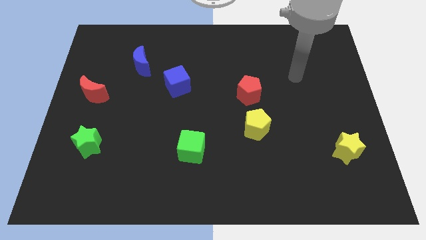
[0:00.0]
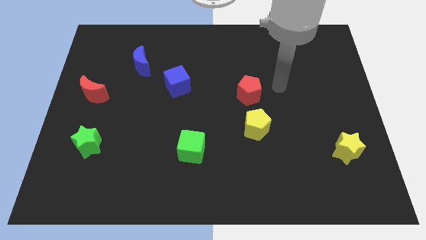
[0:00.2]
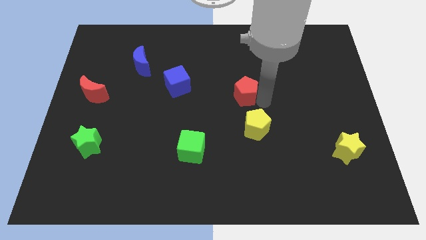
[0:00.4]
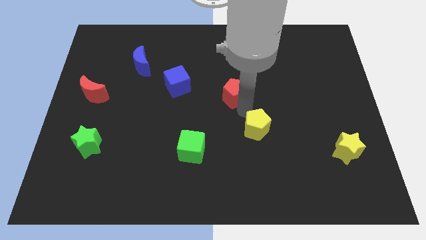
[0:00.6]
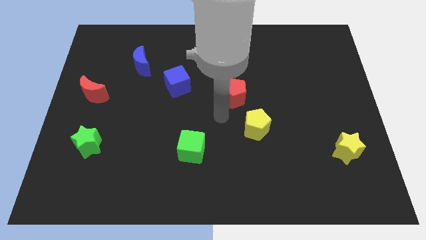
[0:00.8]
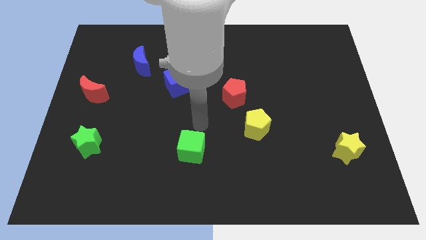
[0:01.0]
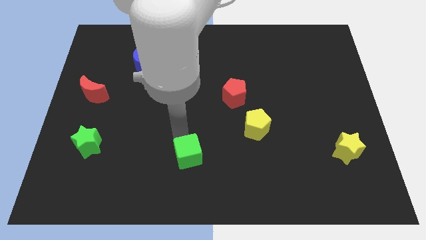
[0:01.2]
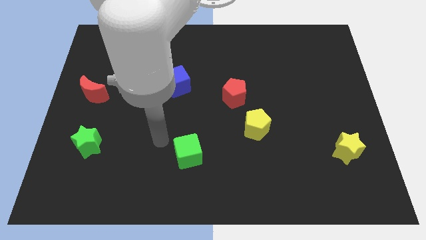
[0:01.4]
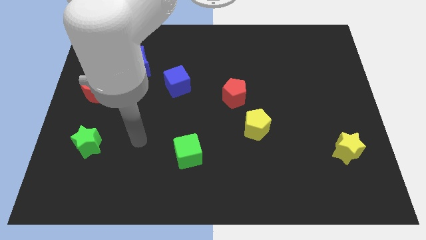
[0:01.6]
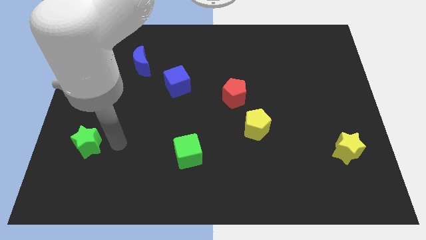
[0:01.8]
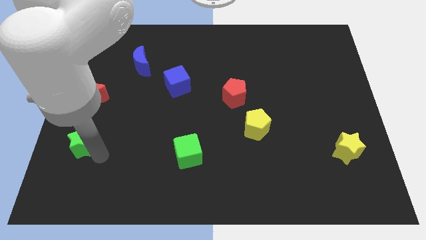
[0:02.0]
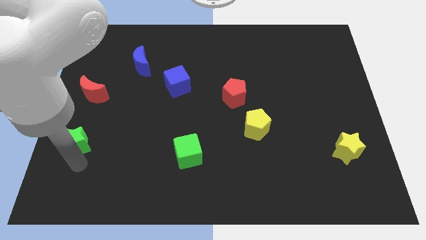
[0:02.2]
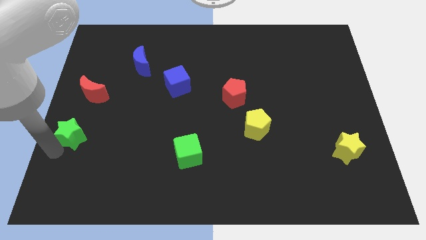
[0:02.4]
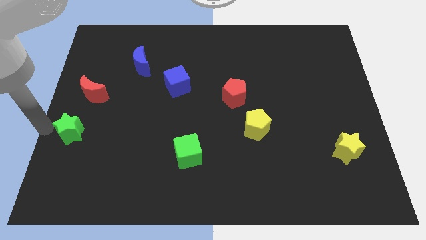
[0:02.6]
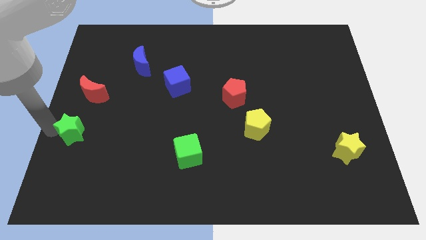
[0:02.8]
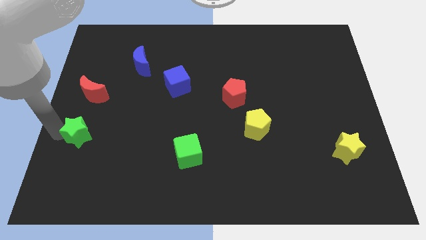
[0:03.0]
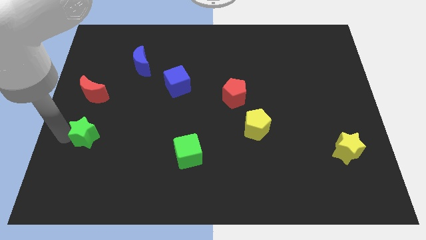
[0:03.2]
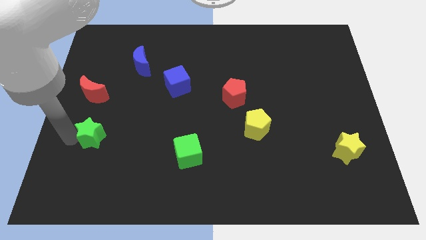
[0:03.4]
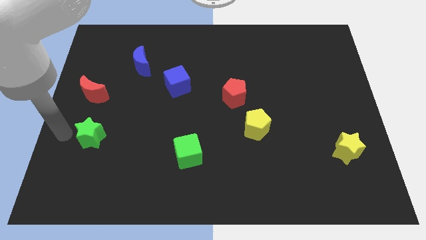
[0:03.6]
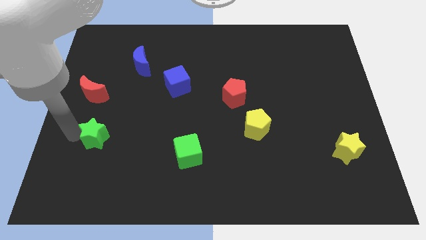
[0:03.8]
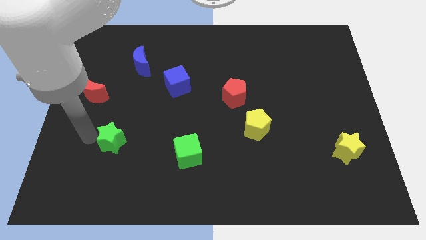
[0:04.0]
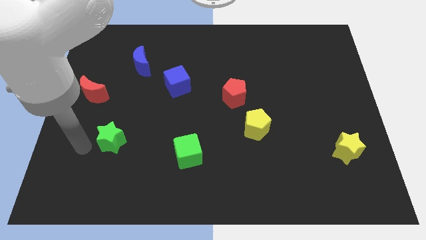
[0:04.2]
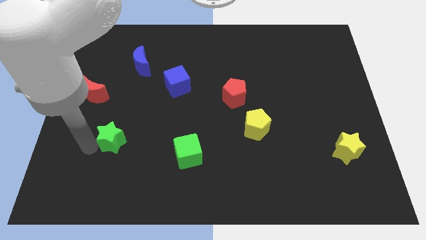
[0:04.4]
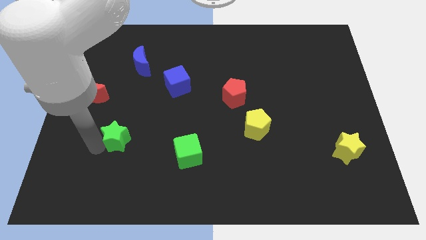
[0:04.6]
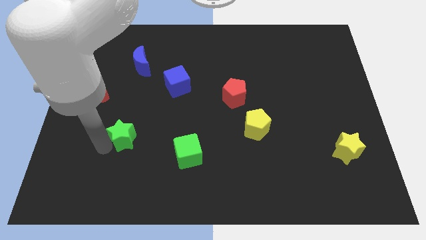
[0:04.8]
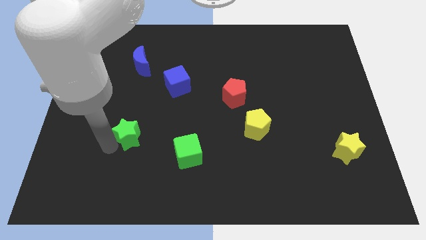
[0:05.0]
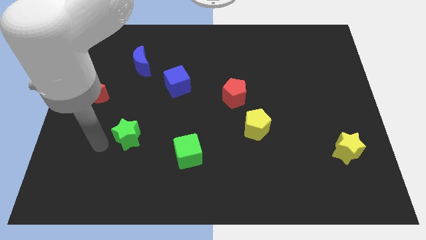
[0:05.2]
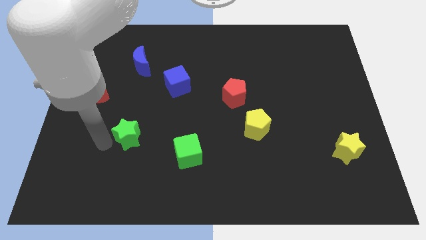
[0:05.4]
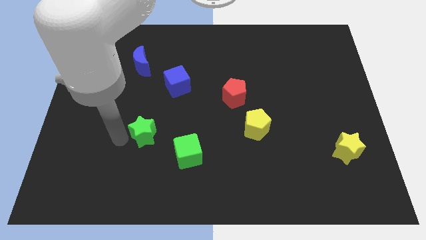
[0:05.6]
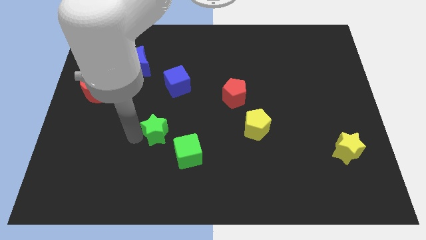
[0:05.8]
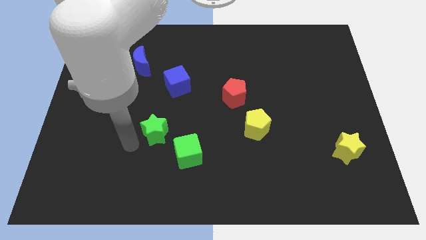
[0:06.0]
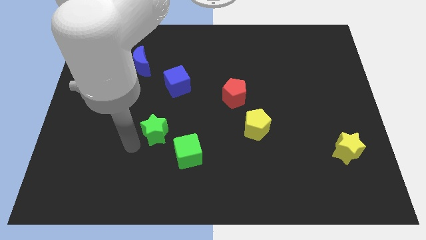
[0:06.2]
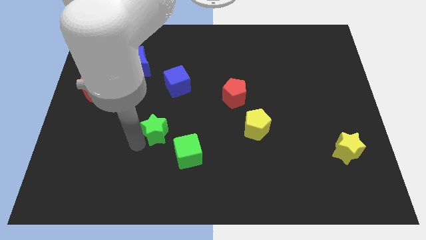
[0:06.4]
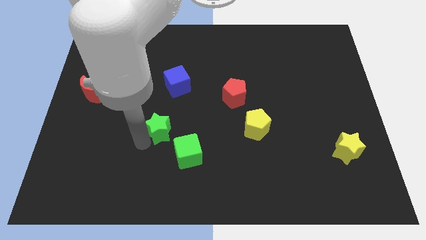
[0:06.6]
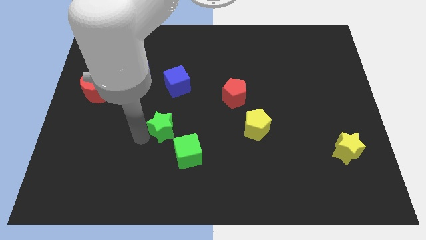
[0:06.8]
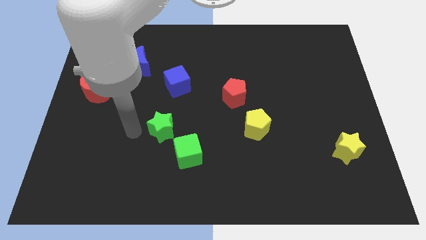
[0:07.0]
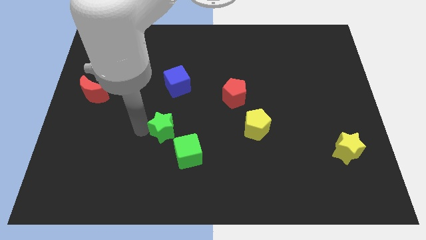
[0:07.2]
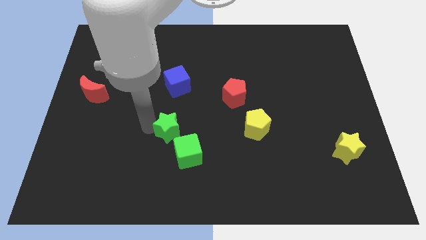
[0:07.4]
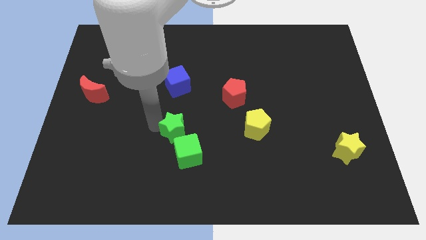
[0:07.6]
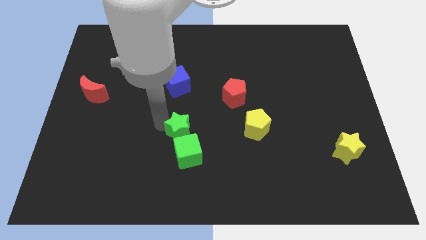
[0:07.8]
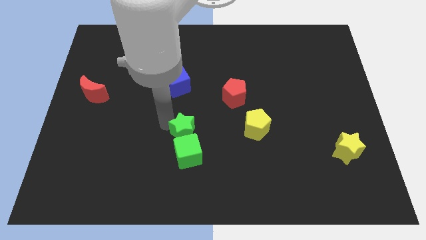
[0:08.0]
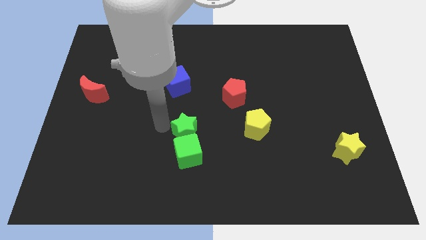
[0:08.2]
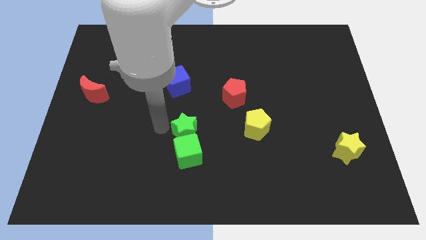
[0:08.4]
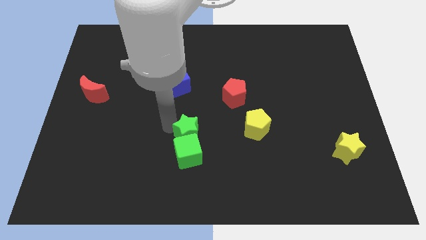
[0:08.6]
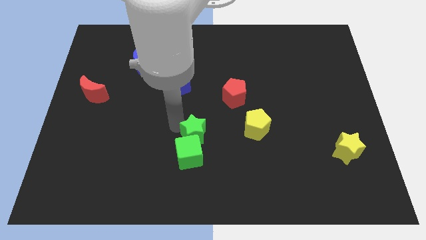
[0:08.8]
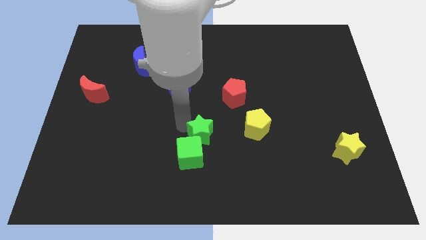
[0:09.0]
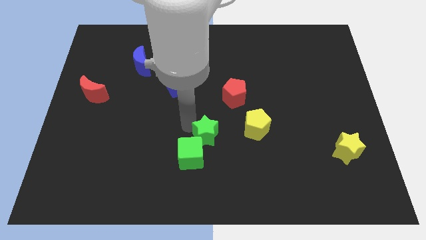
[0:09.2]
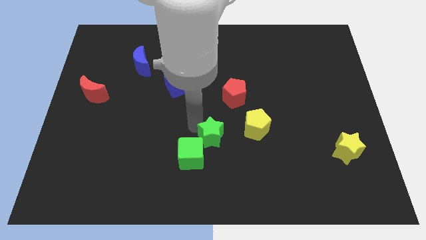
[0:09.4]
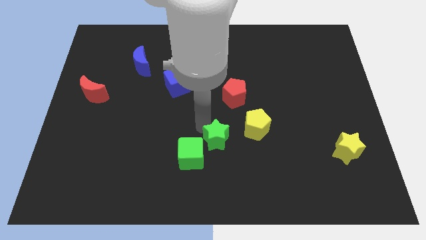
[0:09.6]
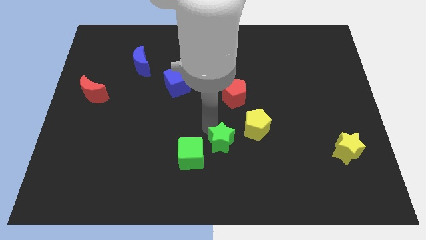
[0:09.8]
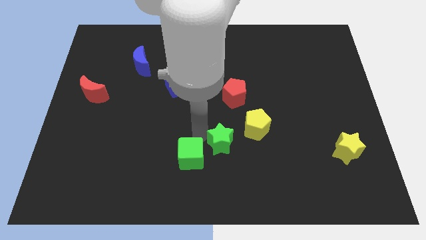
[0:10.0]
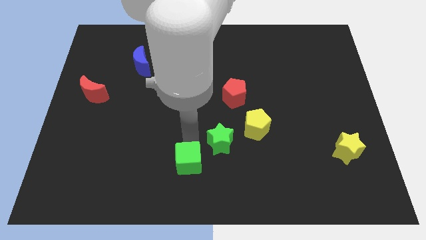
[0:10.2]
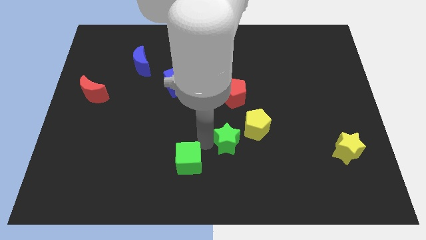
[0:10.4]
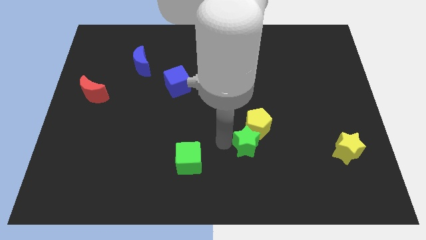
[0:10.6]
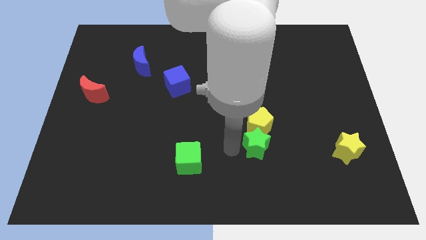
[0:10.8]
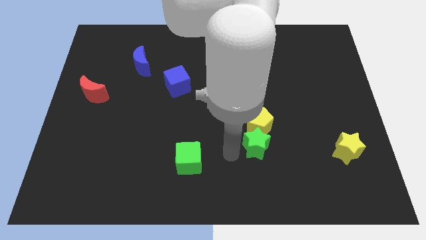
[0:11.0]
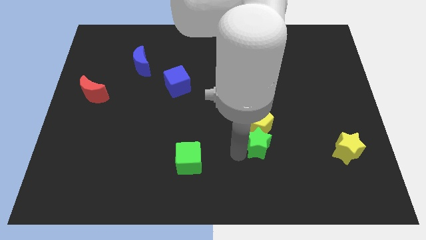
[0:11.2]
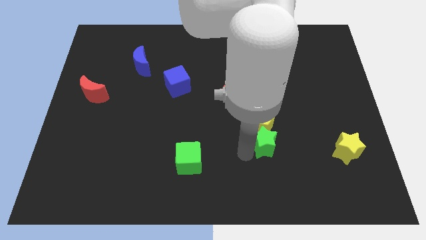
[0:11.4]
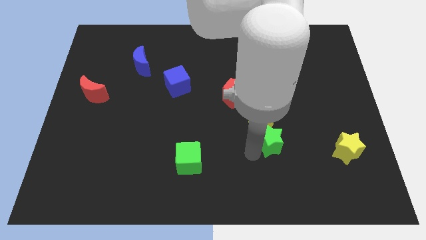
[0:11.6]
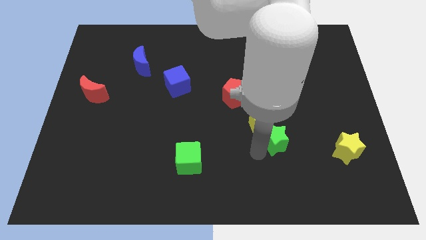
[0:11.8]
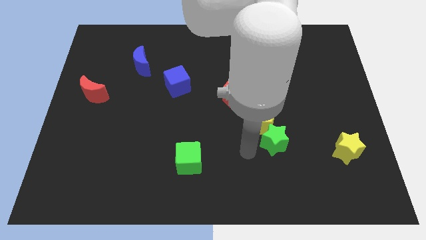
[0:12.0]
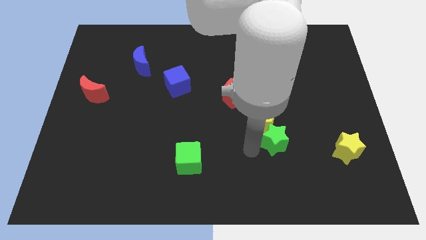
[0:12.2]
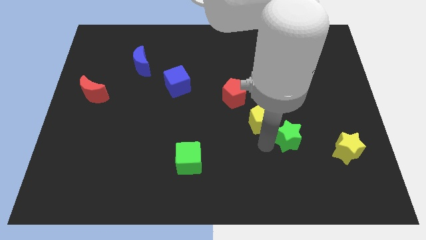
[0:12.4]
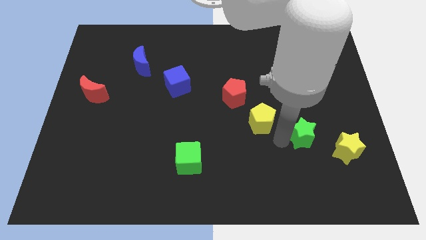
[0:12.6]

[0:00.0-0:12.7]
put the green star to the top left side of the yellow star
